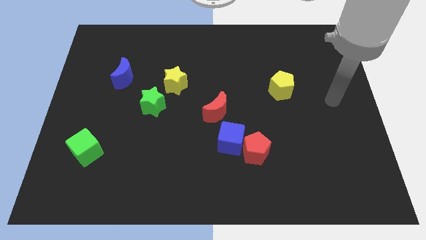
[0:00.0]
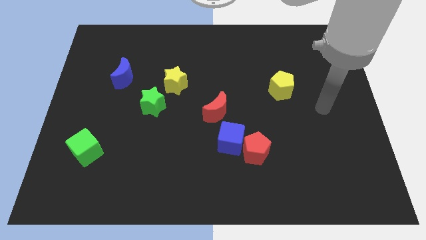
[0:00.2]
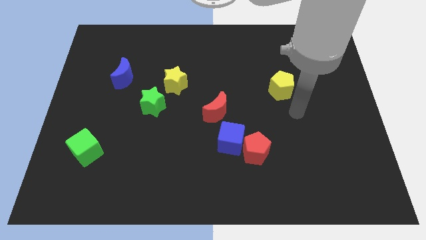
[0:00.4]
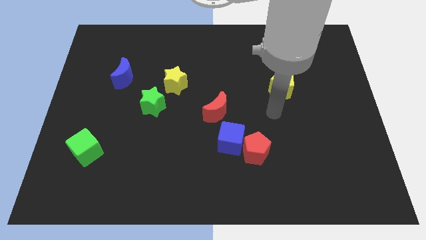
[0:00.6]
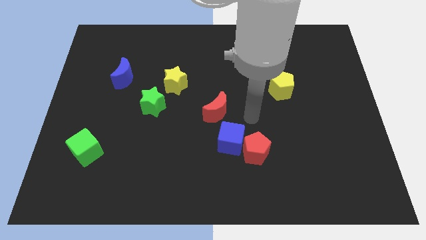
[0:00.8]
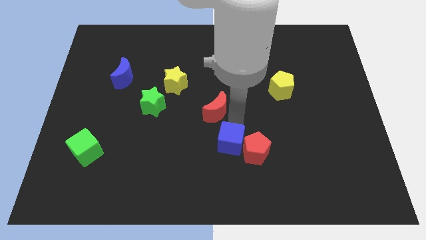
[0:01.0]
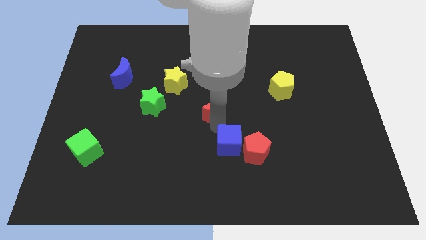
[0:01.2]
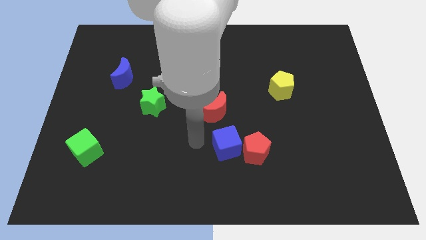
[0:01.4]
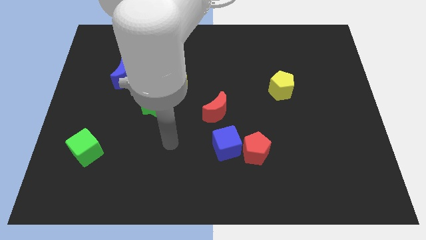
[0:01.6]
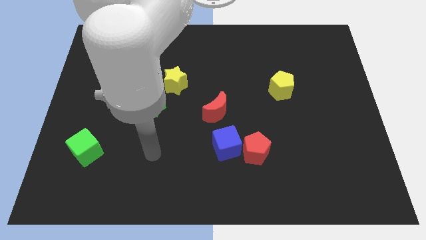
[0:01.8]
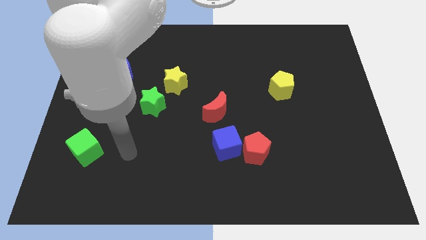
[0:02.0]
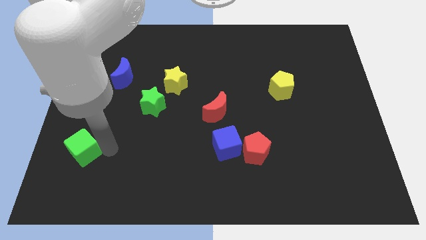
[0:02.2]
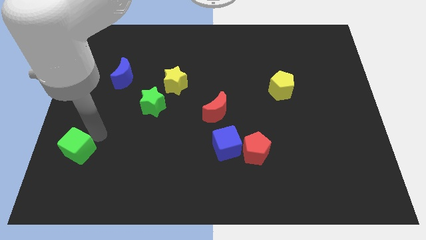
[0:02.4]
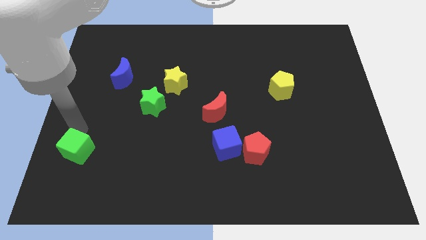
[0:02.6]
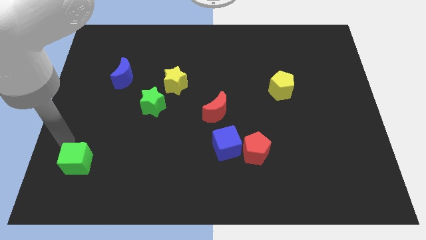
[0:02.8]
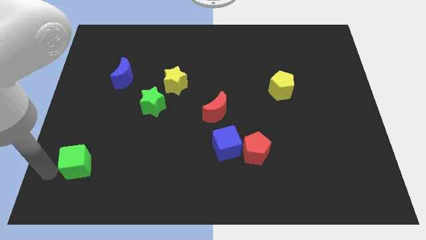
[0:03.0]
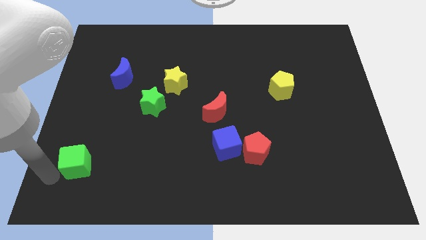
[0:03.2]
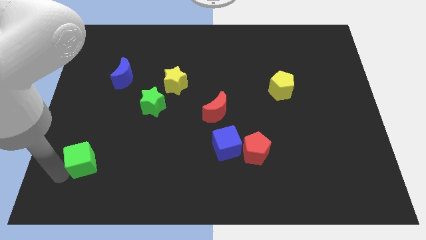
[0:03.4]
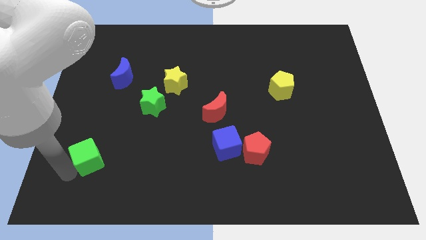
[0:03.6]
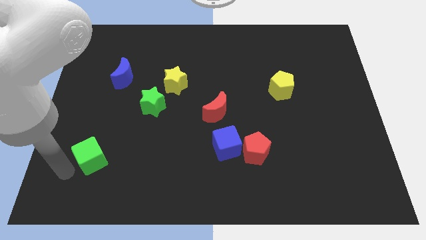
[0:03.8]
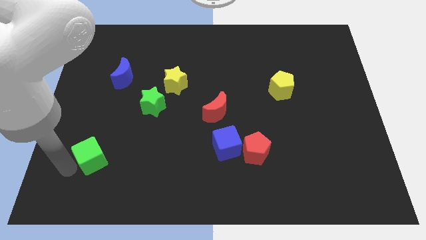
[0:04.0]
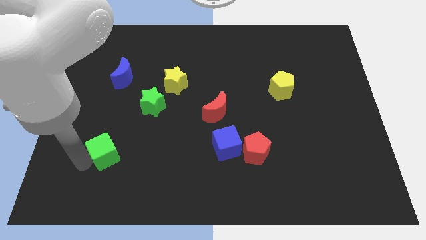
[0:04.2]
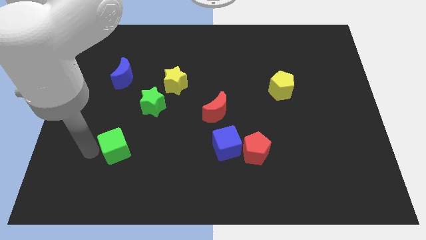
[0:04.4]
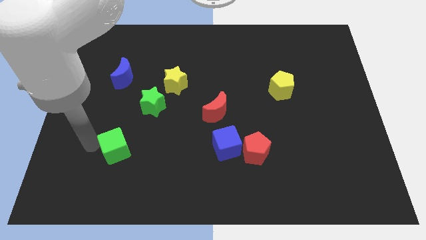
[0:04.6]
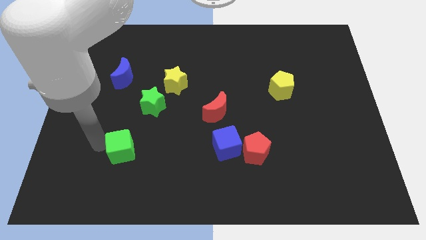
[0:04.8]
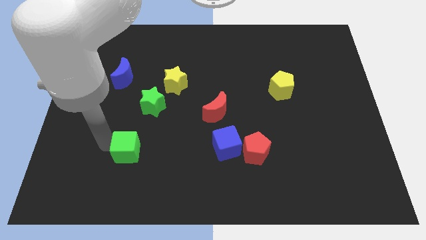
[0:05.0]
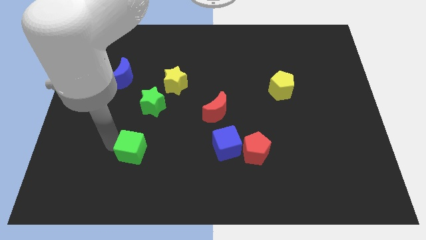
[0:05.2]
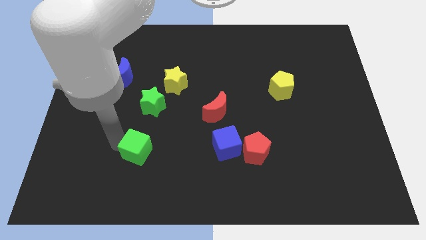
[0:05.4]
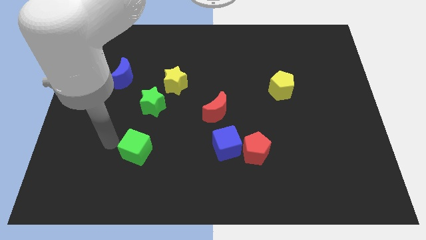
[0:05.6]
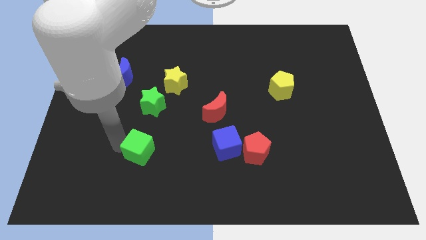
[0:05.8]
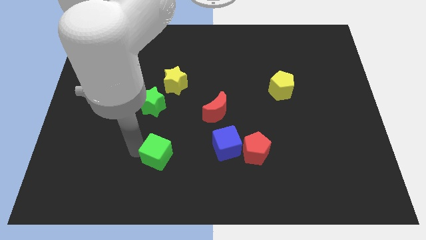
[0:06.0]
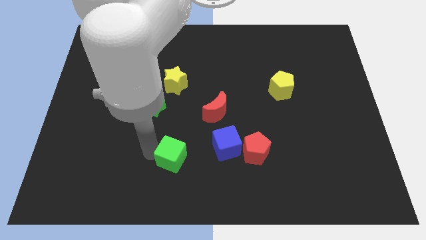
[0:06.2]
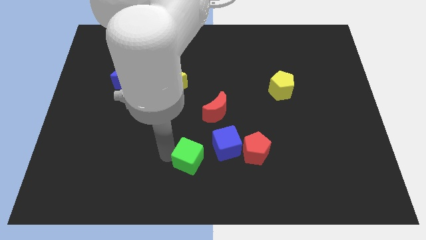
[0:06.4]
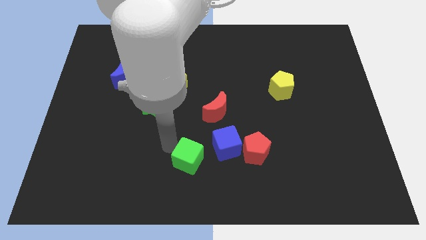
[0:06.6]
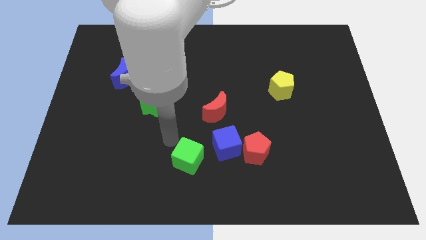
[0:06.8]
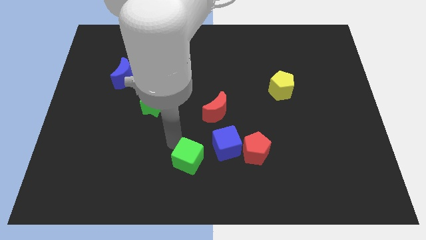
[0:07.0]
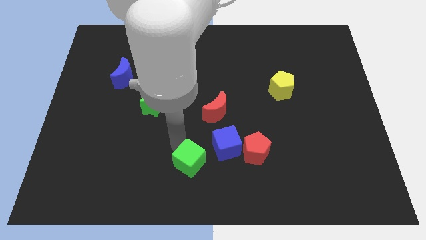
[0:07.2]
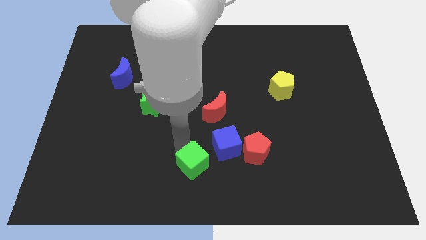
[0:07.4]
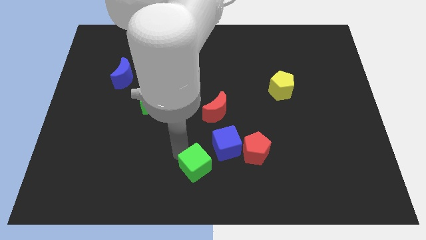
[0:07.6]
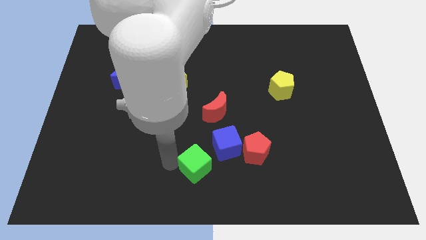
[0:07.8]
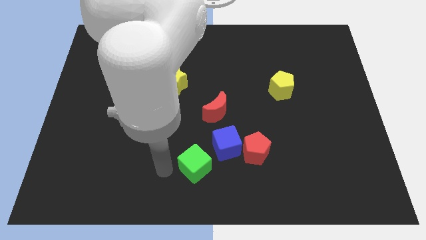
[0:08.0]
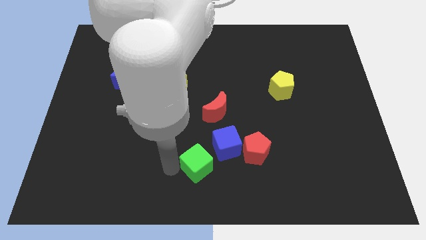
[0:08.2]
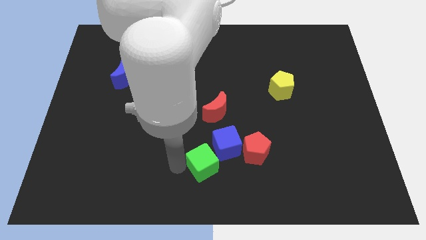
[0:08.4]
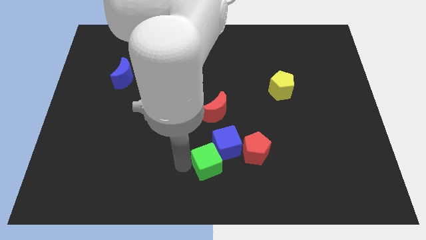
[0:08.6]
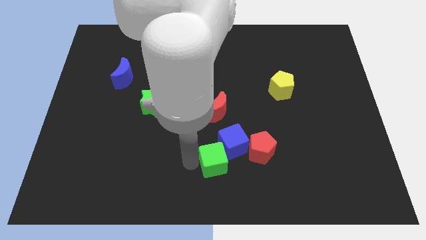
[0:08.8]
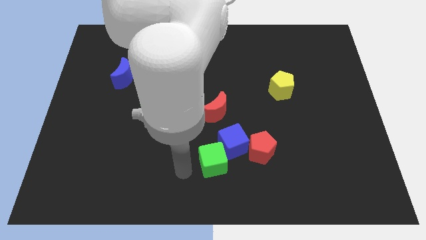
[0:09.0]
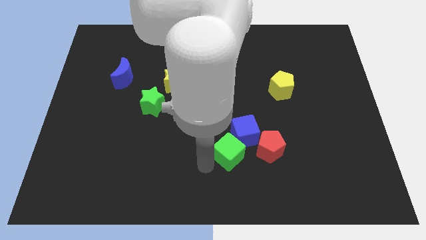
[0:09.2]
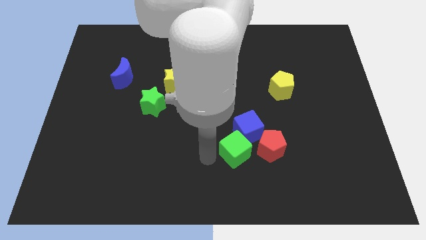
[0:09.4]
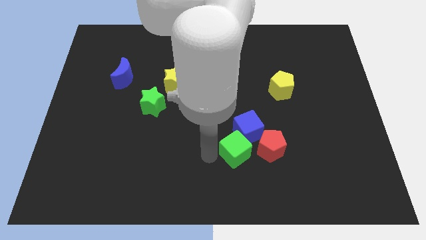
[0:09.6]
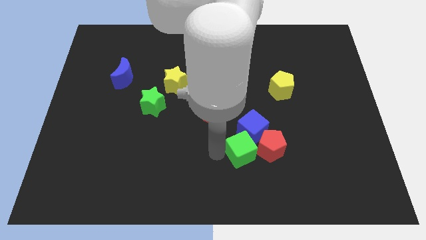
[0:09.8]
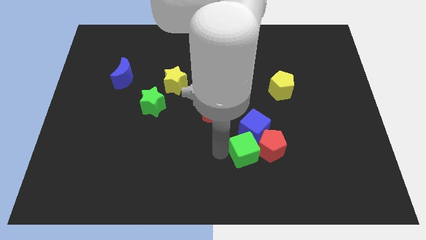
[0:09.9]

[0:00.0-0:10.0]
push the green cube next to the red pentagon

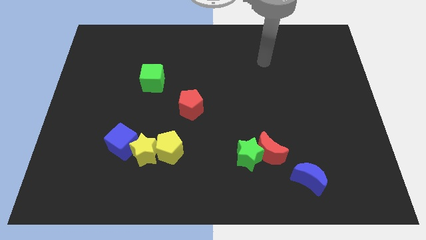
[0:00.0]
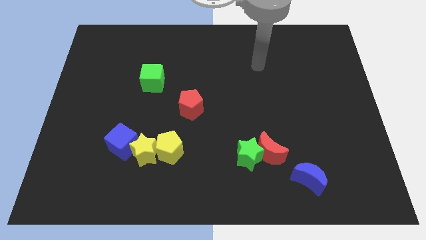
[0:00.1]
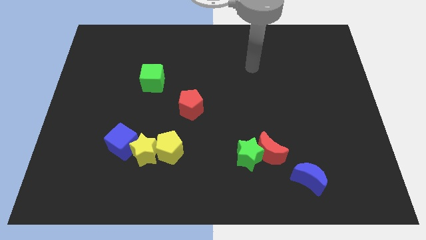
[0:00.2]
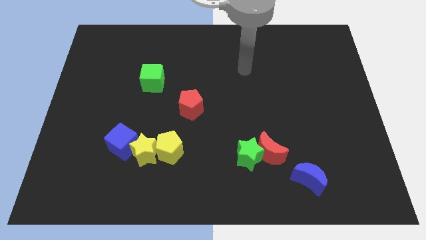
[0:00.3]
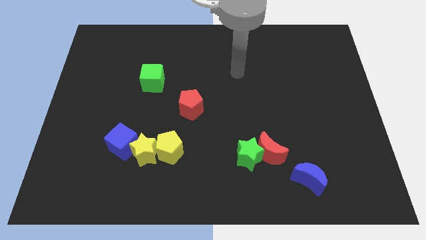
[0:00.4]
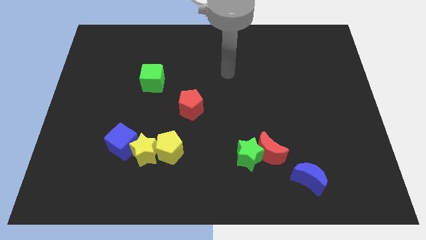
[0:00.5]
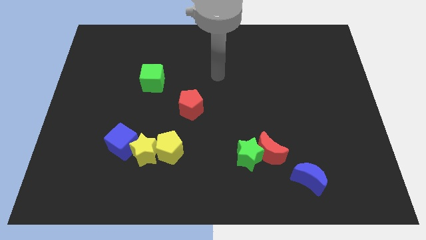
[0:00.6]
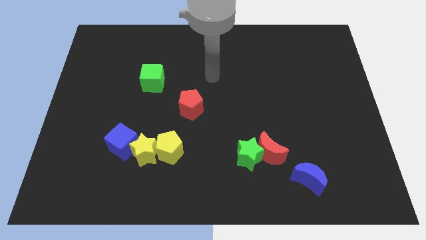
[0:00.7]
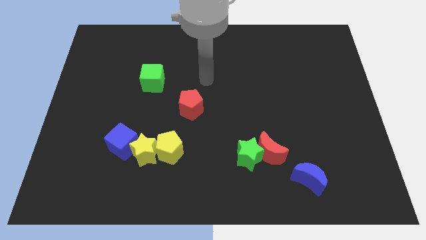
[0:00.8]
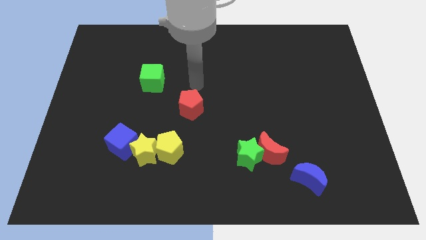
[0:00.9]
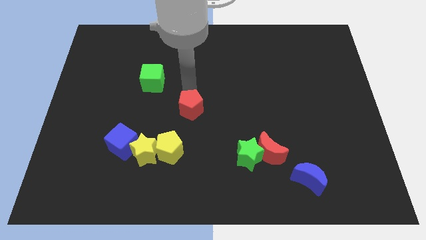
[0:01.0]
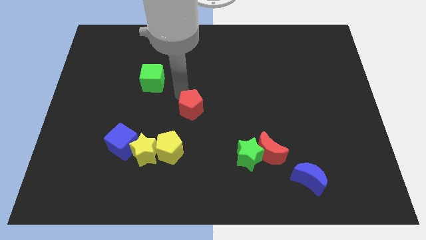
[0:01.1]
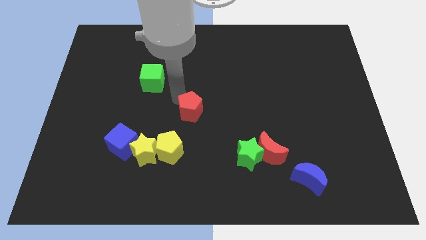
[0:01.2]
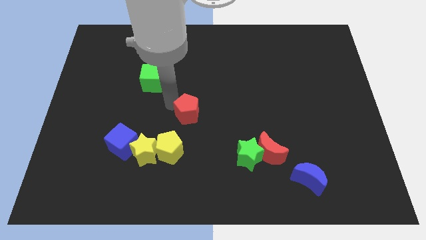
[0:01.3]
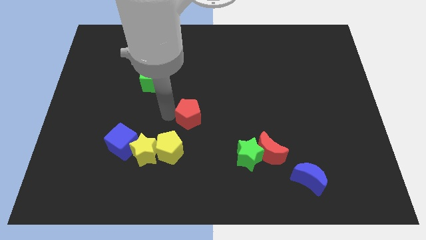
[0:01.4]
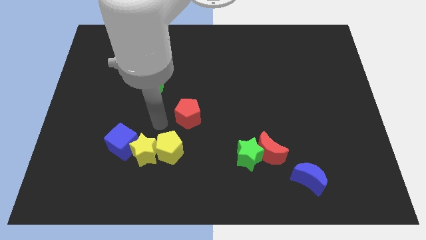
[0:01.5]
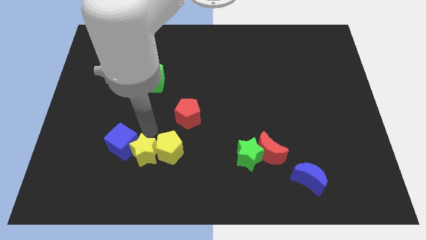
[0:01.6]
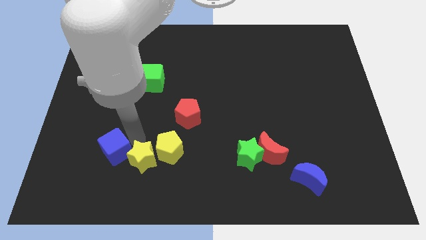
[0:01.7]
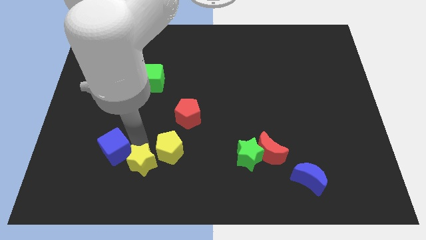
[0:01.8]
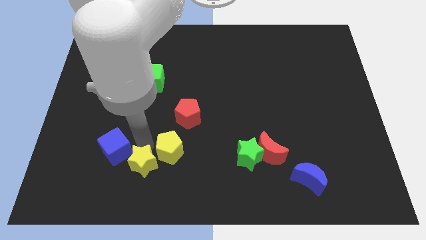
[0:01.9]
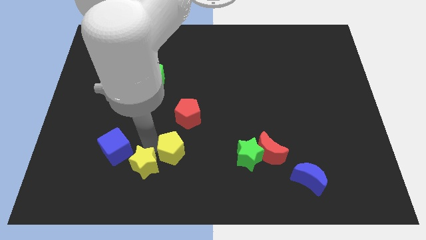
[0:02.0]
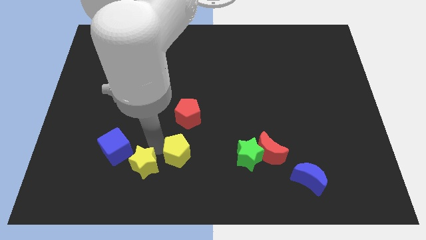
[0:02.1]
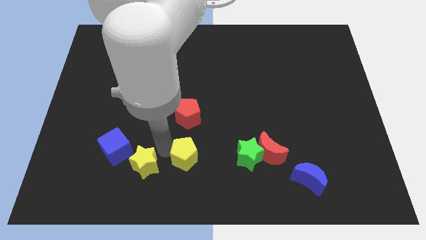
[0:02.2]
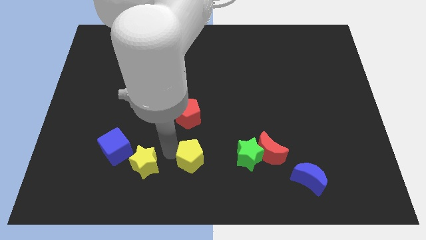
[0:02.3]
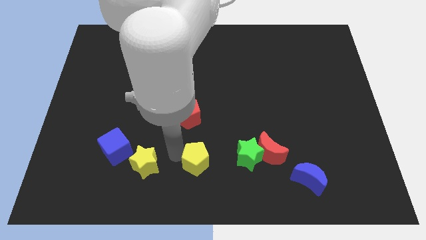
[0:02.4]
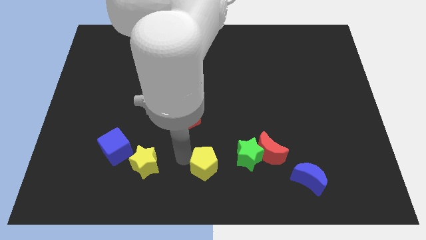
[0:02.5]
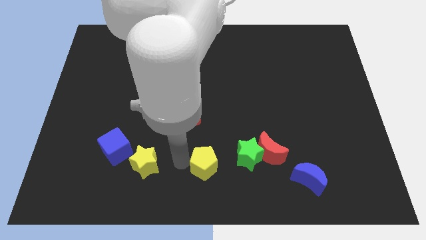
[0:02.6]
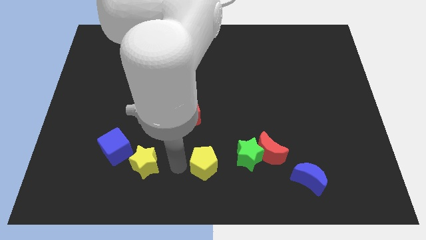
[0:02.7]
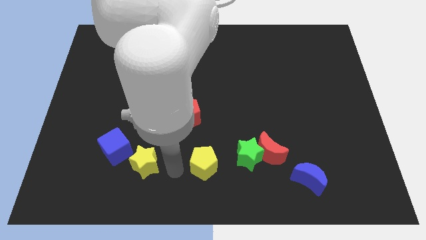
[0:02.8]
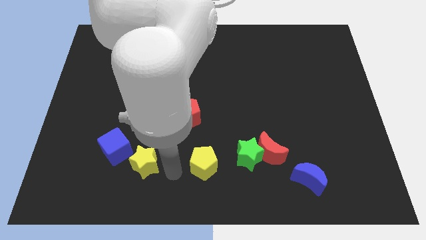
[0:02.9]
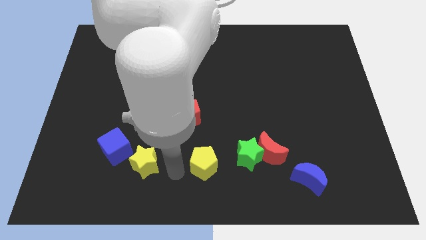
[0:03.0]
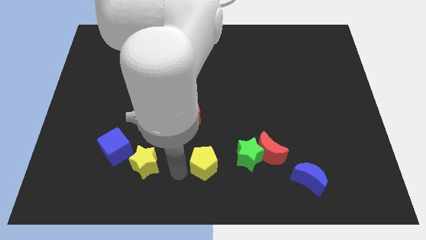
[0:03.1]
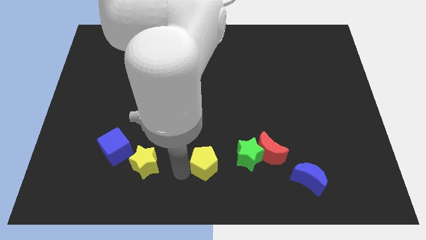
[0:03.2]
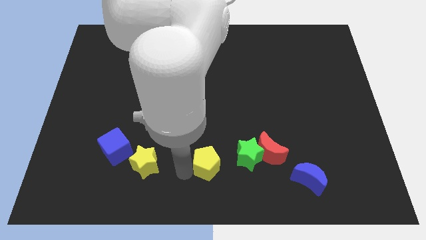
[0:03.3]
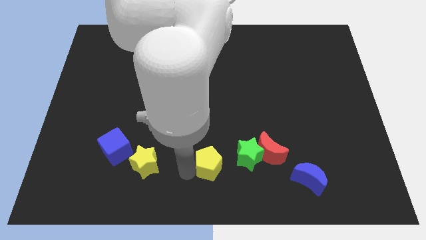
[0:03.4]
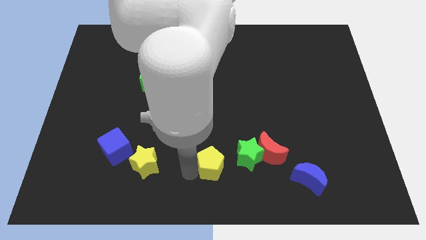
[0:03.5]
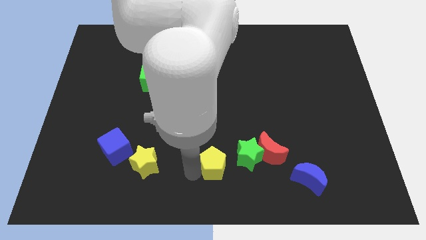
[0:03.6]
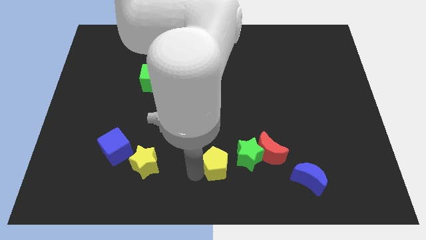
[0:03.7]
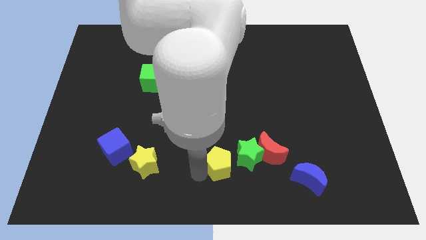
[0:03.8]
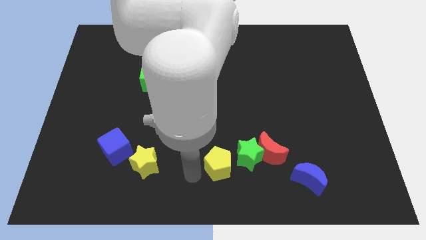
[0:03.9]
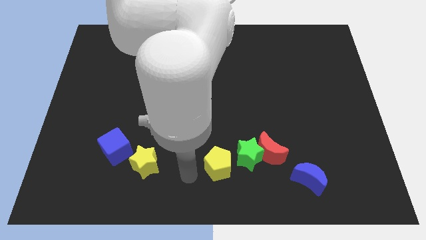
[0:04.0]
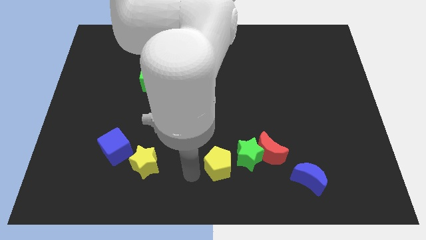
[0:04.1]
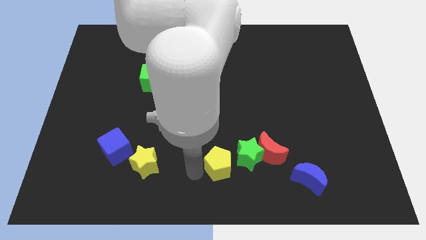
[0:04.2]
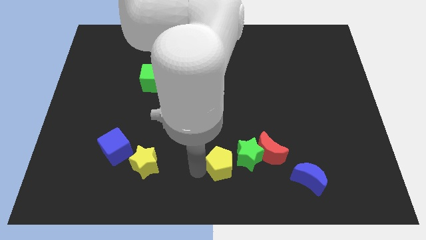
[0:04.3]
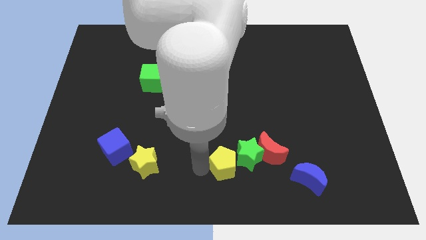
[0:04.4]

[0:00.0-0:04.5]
push the yellow pentagon towards the green star
